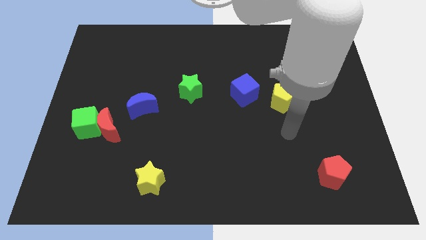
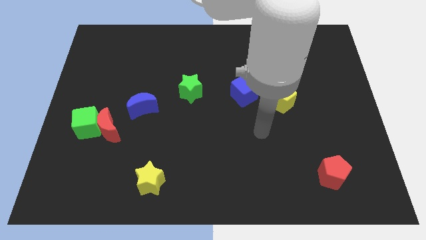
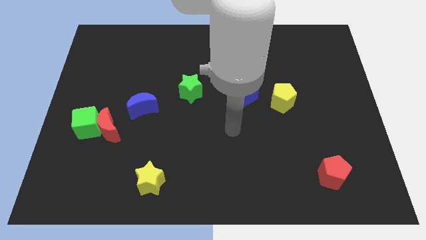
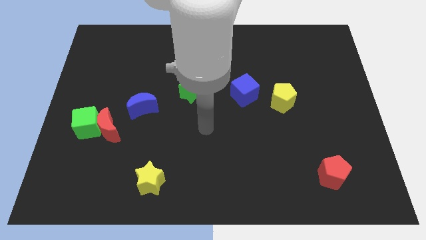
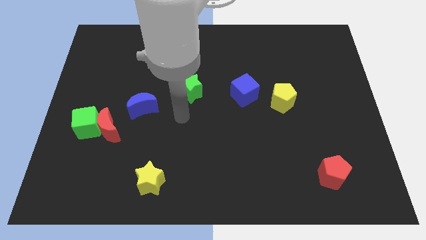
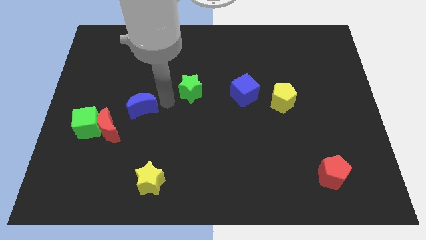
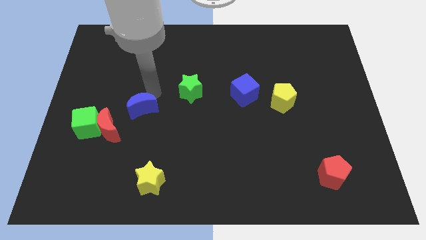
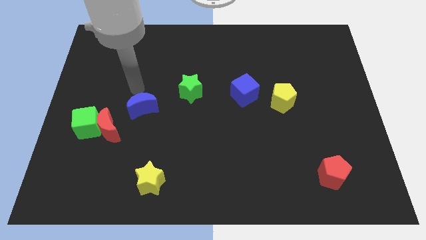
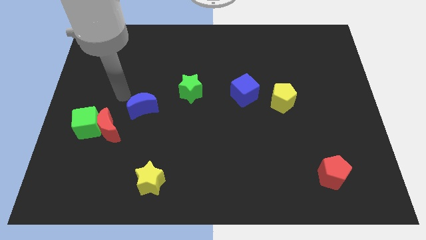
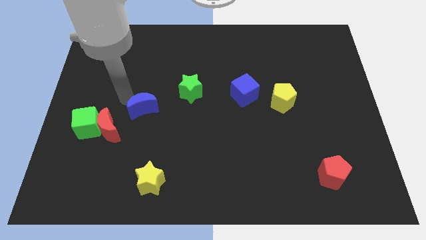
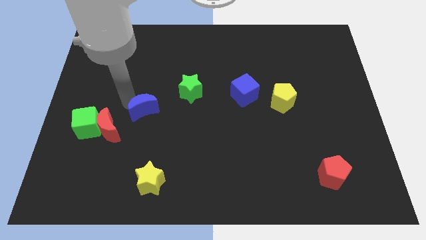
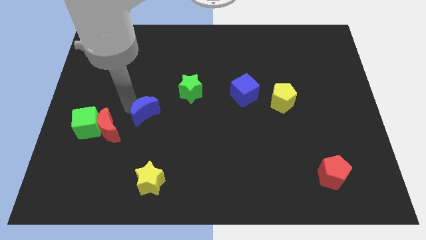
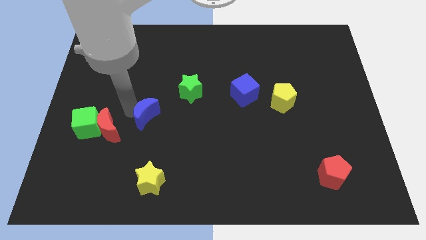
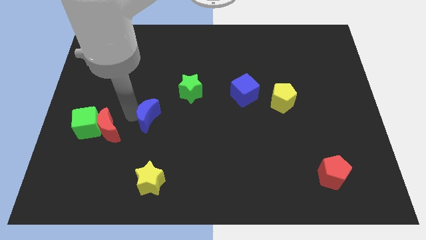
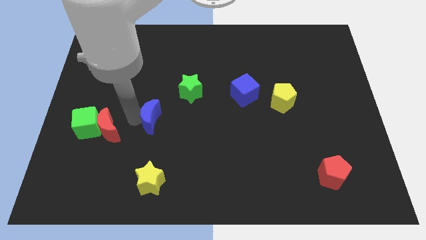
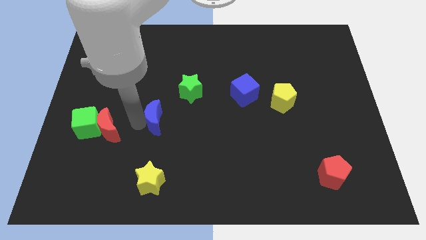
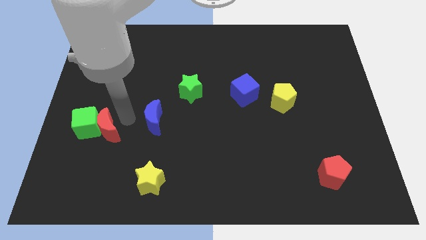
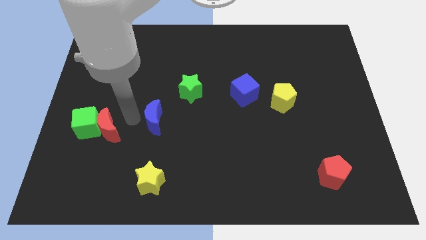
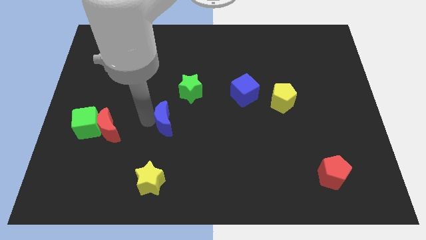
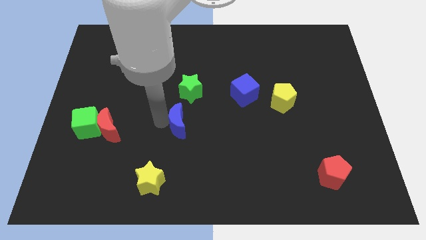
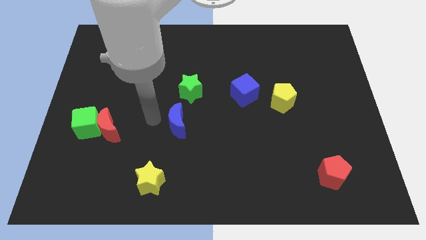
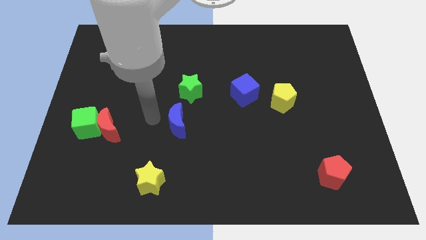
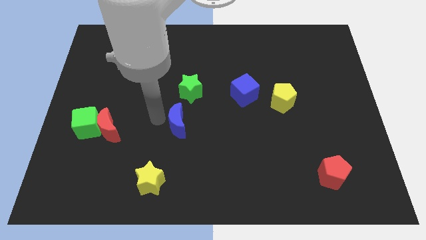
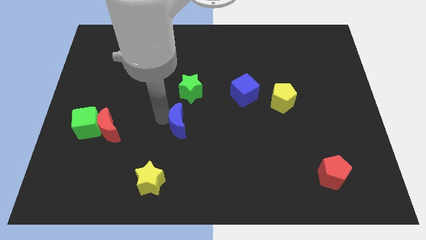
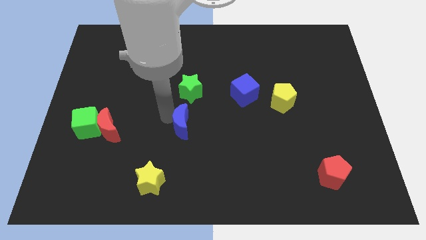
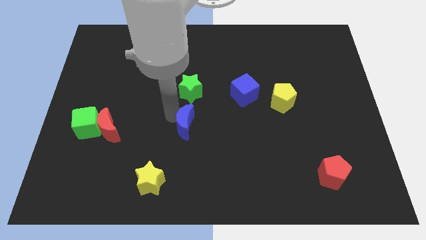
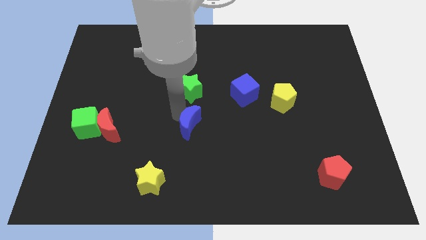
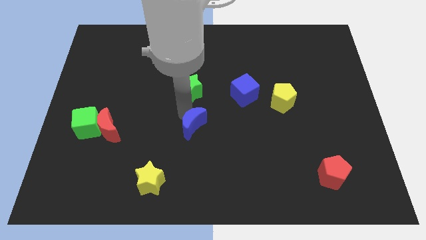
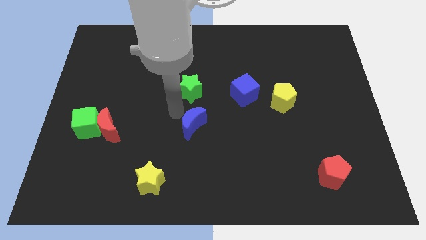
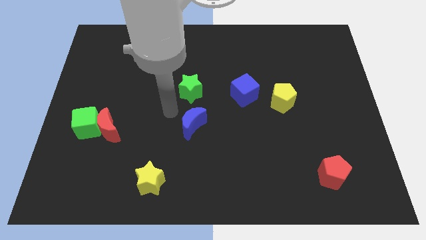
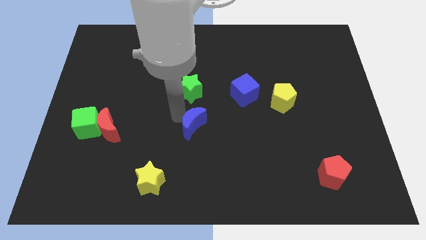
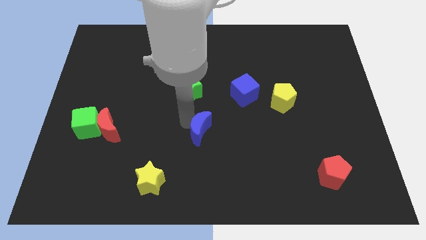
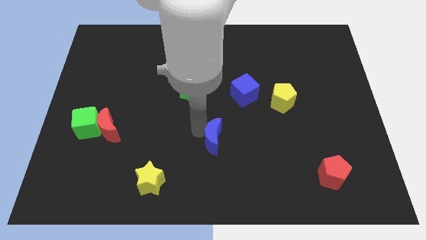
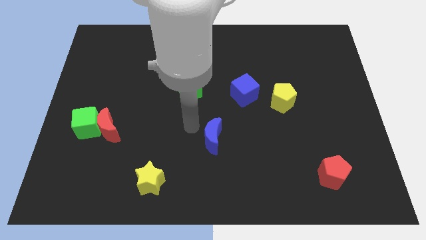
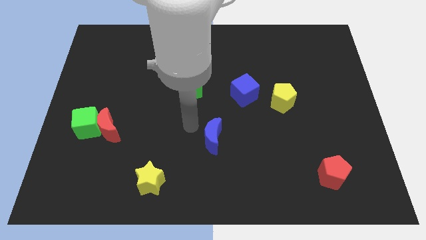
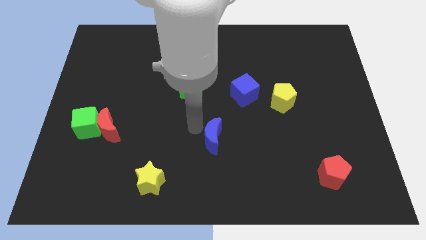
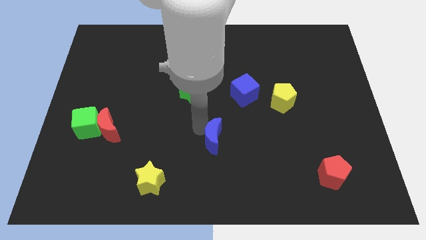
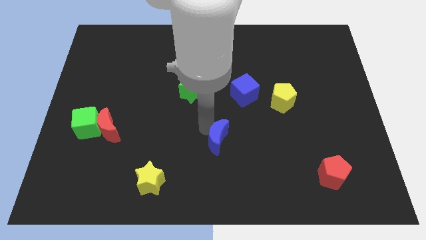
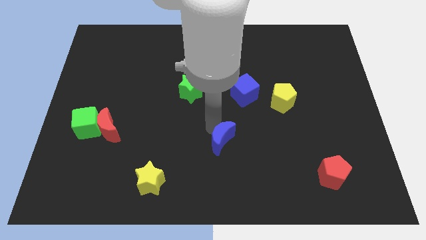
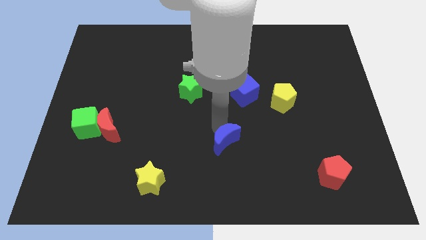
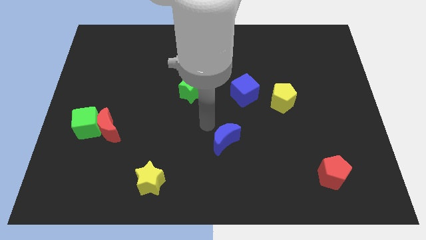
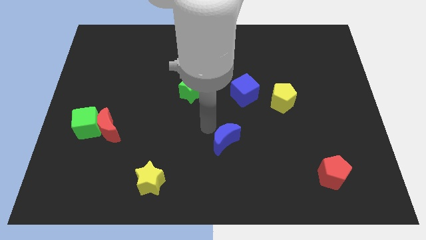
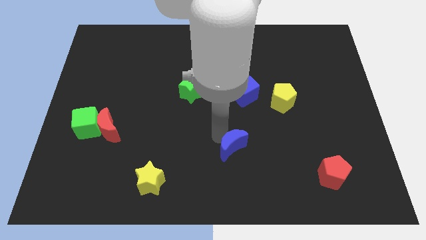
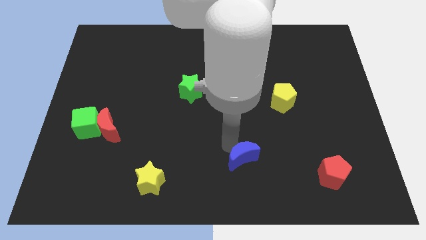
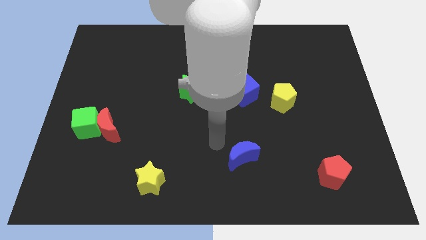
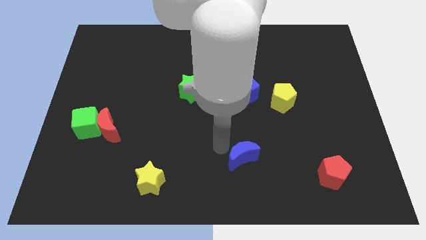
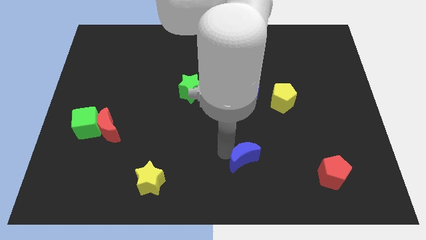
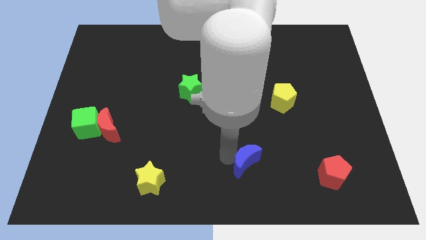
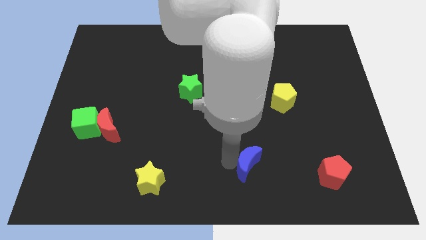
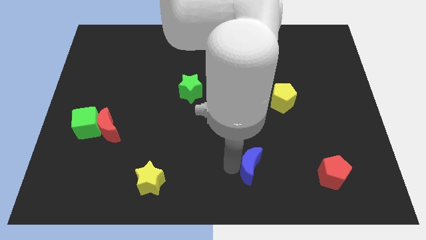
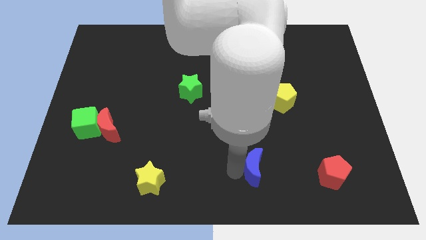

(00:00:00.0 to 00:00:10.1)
slide the blue moon left of the red pentagon

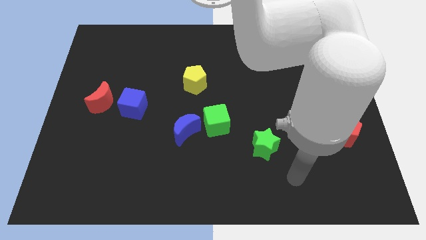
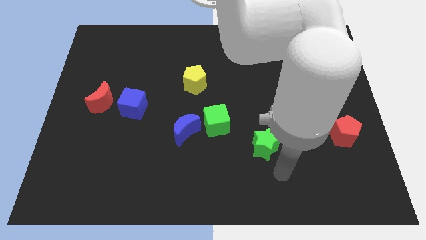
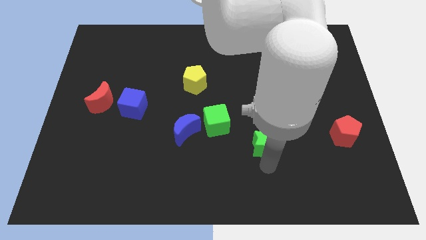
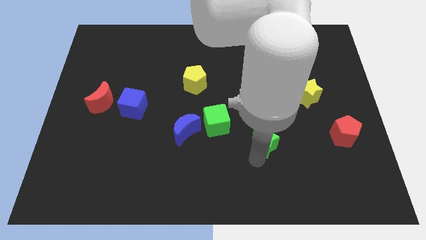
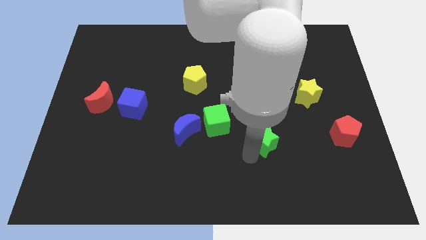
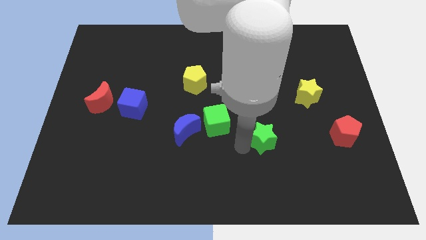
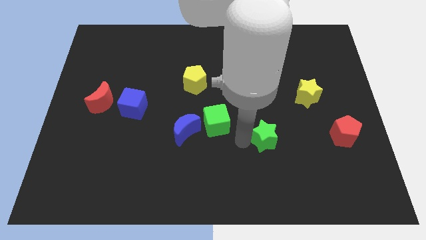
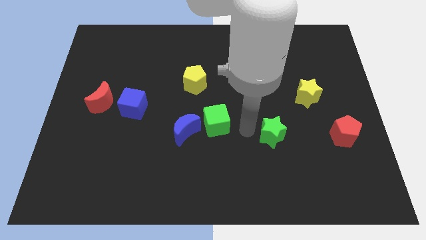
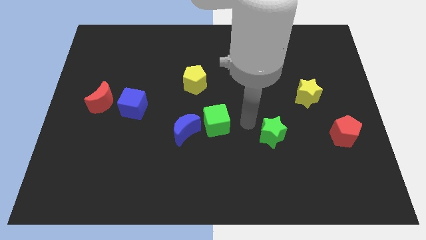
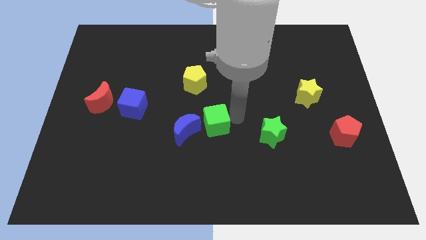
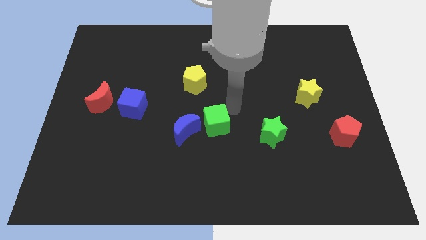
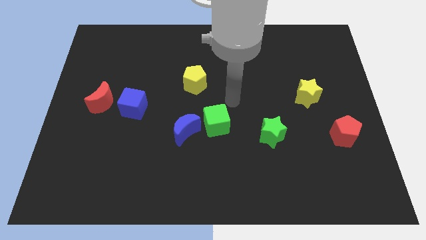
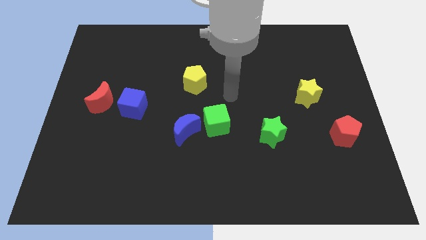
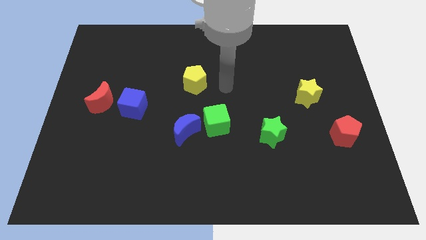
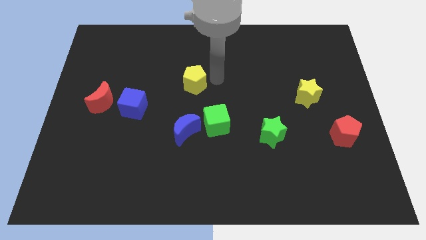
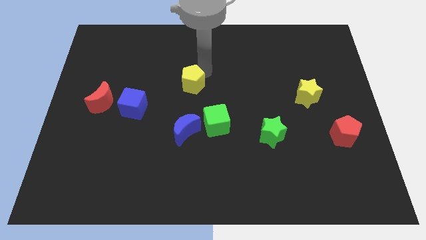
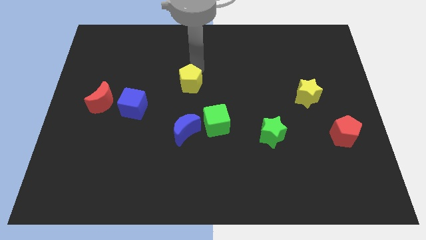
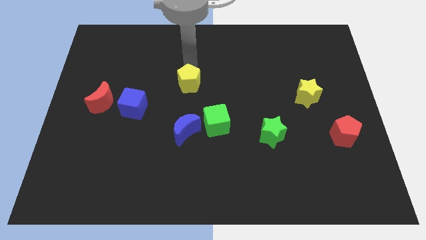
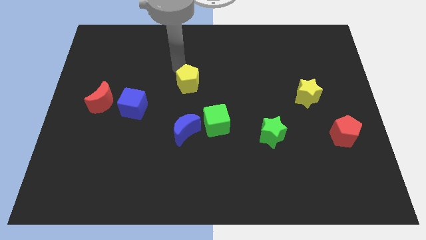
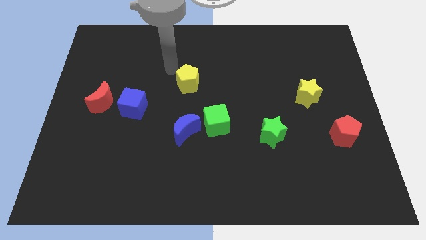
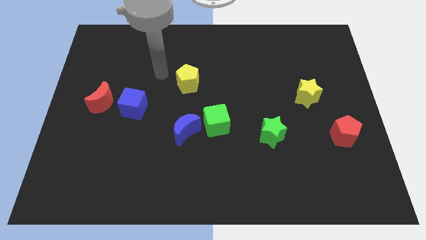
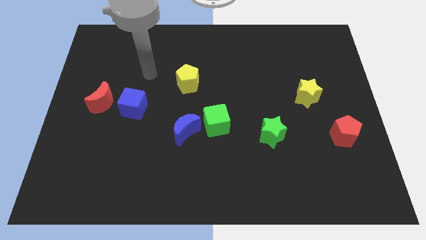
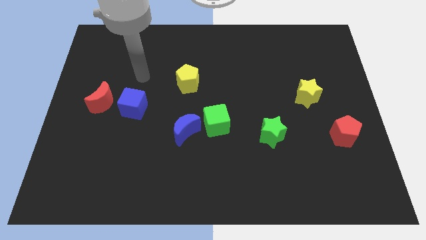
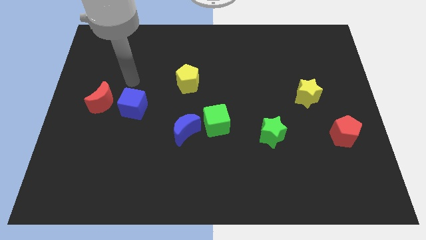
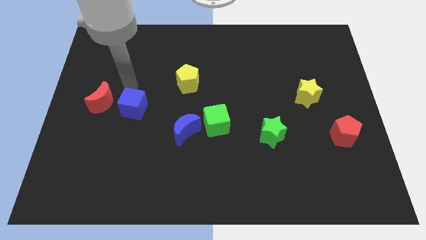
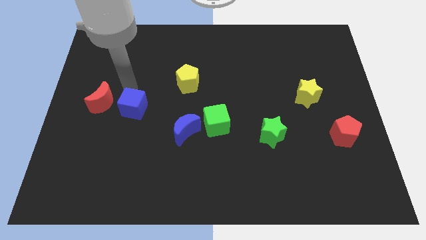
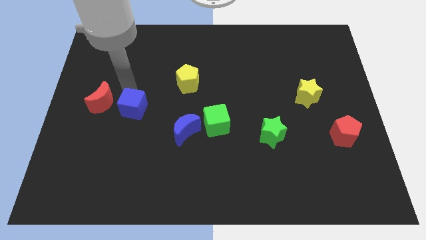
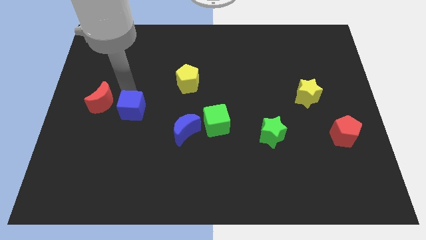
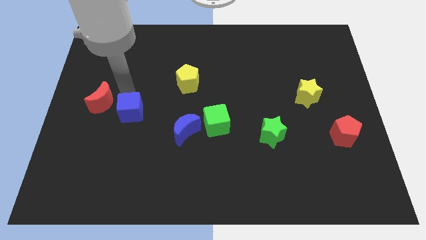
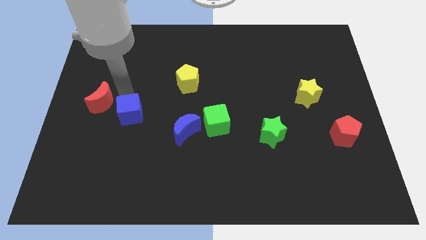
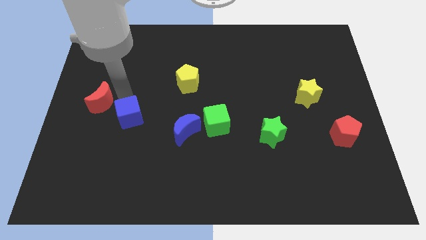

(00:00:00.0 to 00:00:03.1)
put the blue cube to the left of the blue moon
